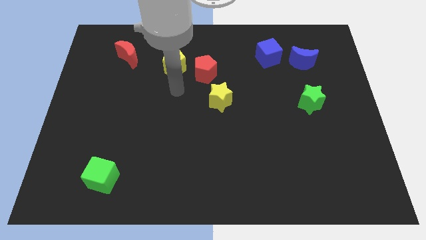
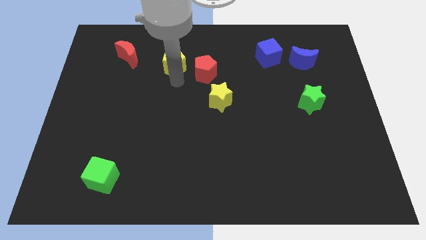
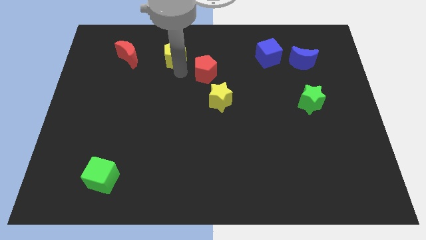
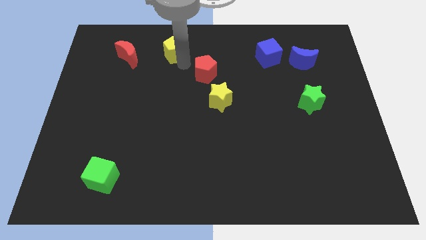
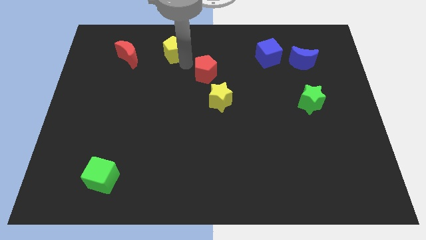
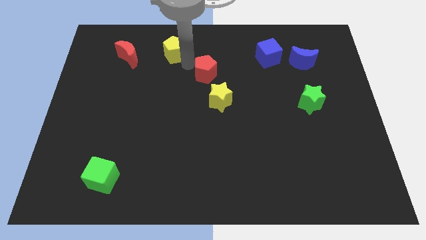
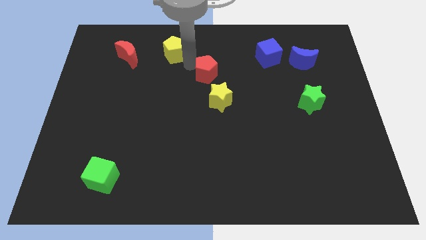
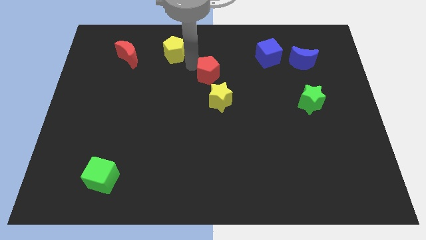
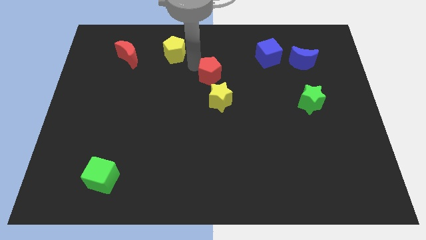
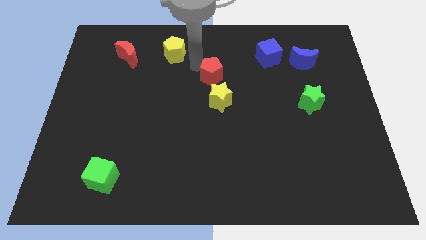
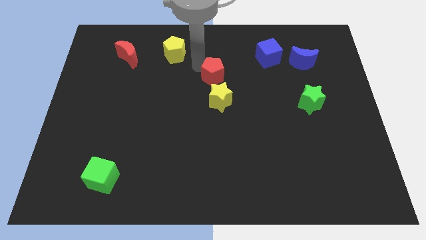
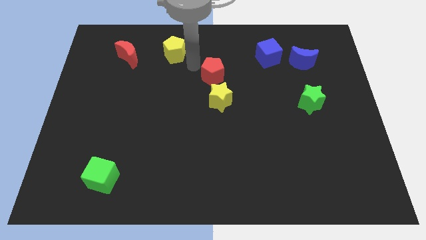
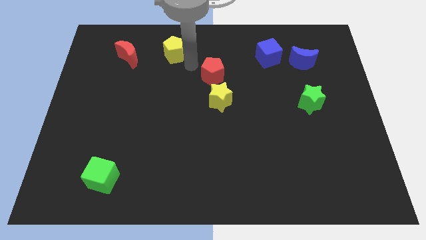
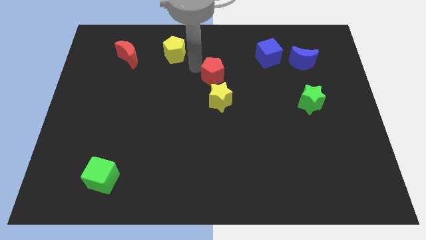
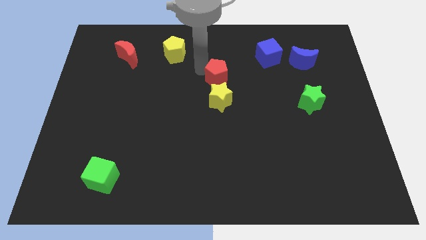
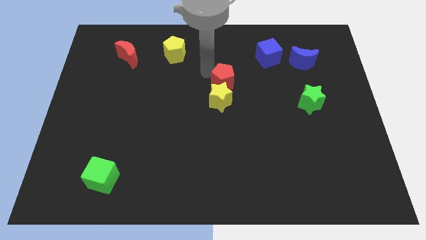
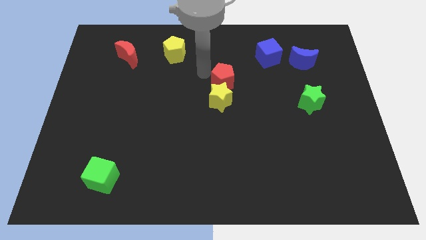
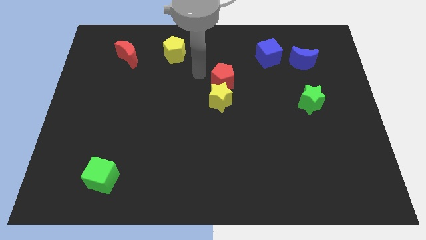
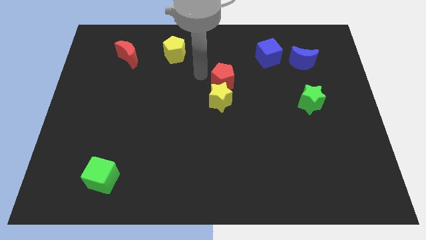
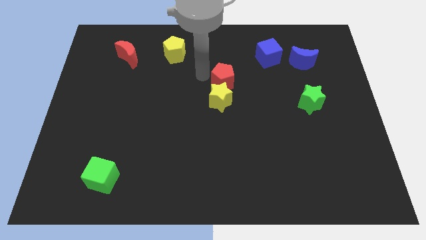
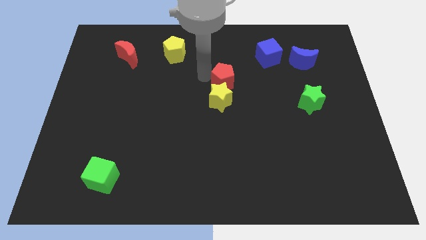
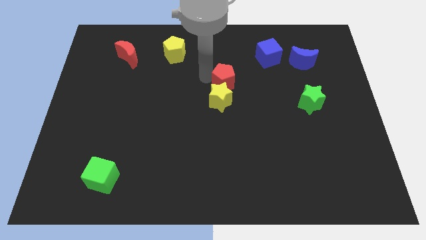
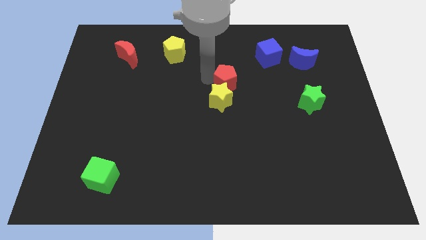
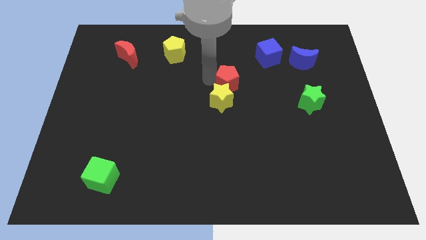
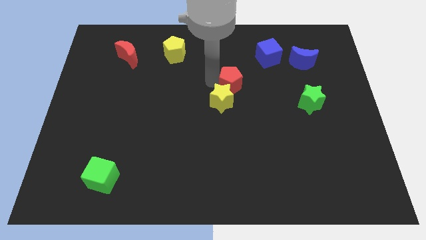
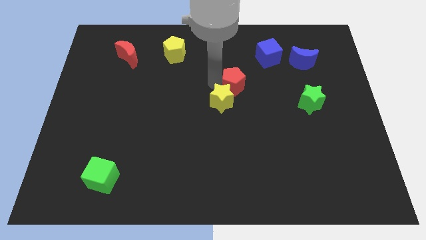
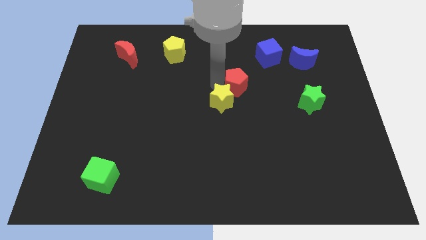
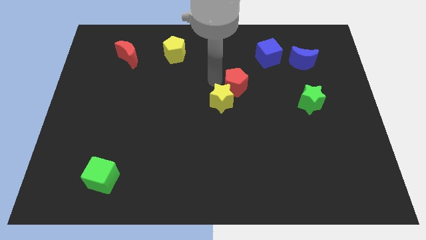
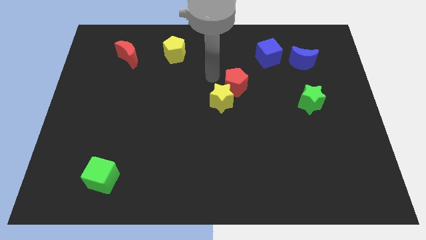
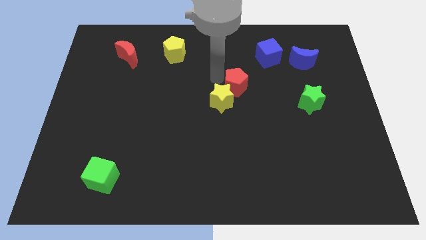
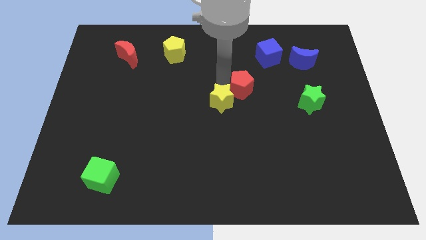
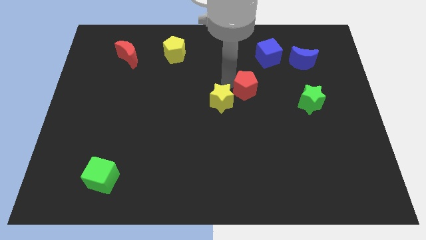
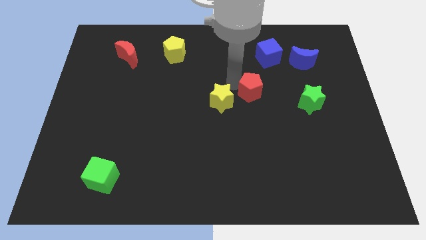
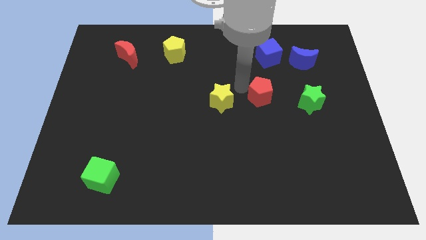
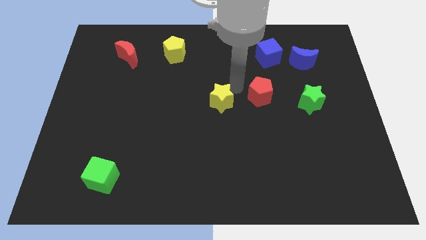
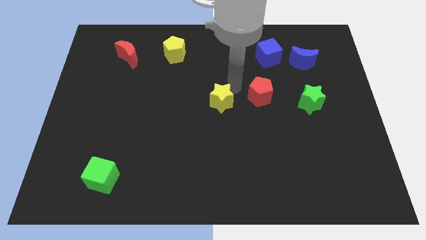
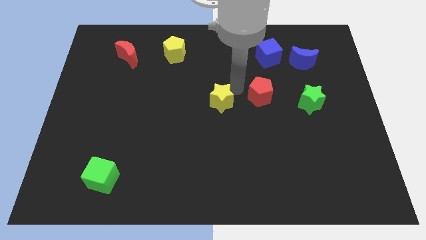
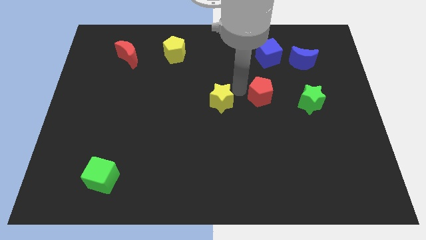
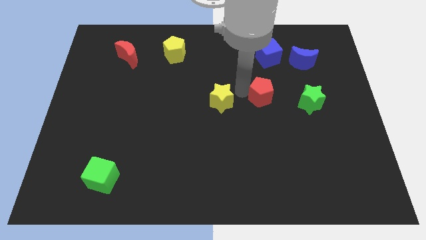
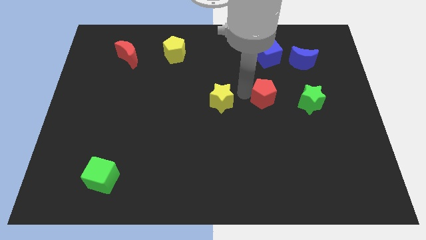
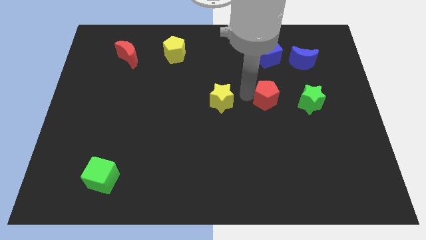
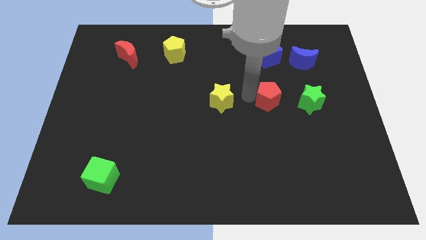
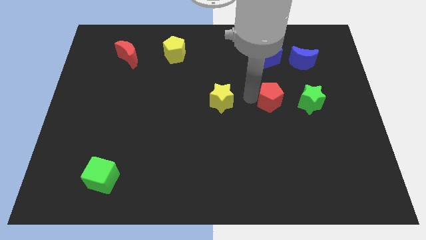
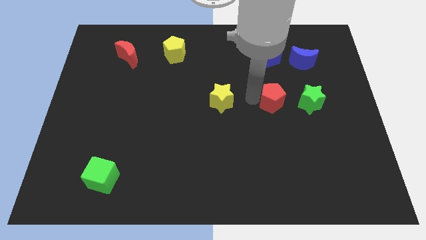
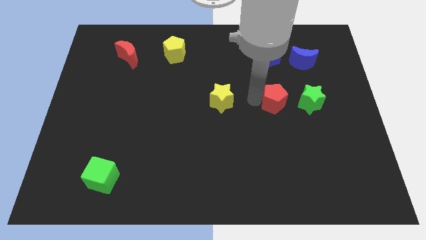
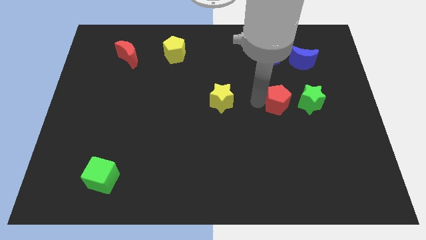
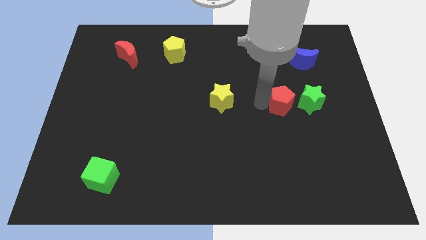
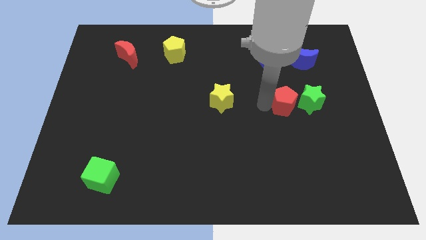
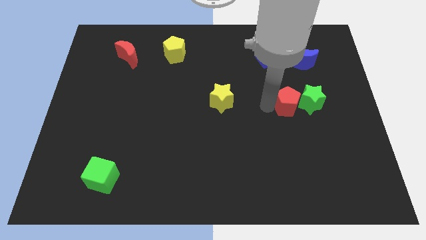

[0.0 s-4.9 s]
push the red pentagon close to the green star

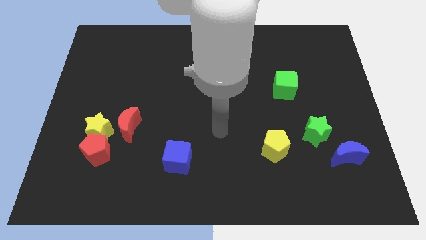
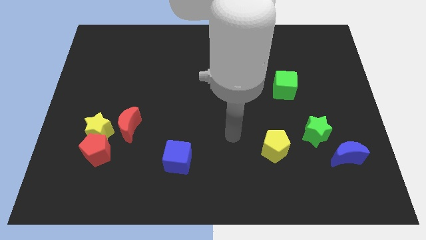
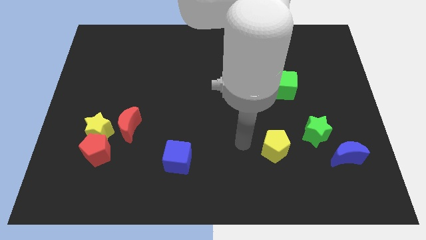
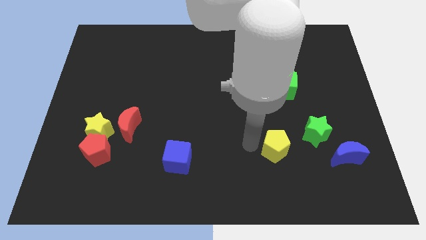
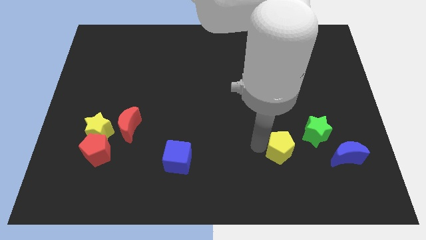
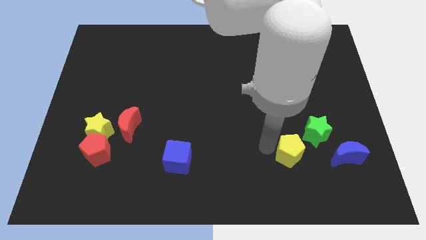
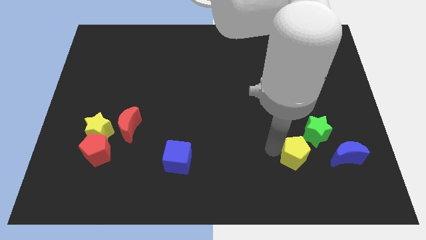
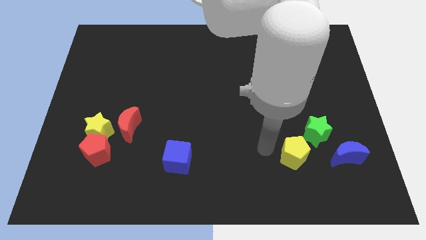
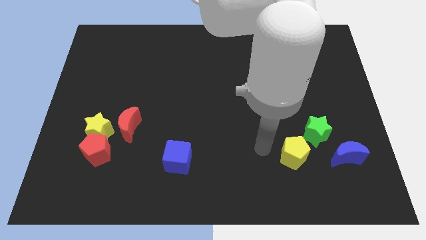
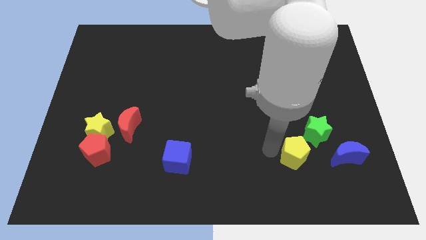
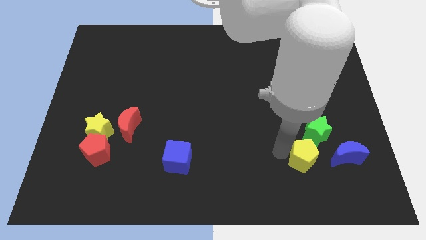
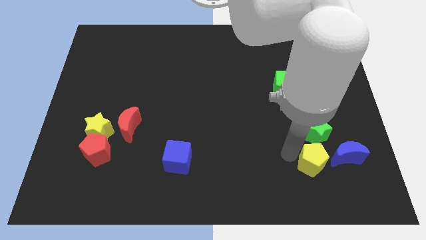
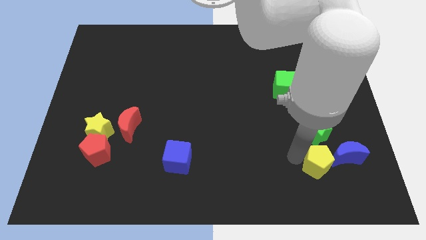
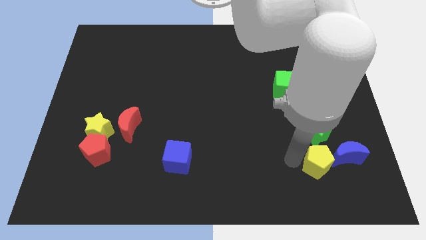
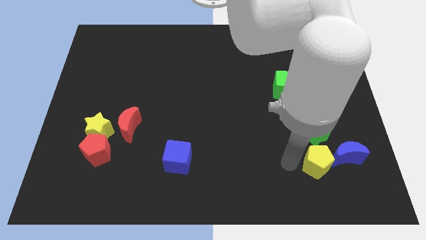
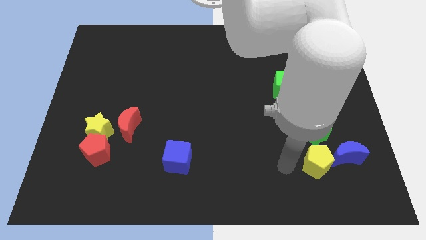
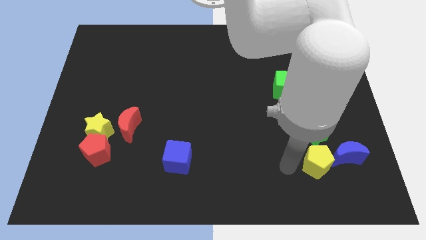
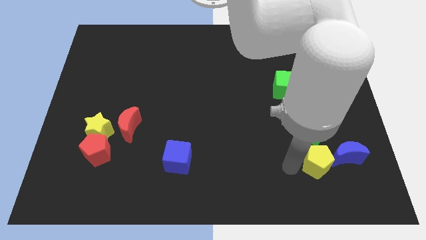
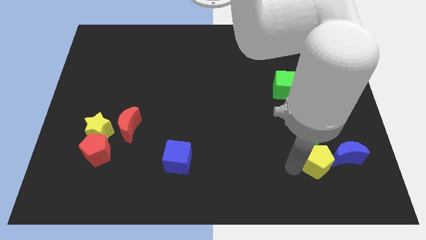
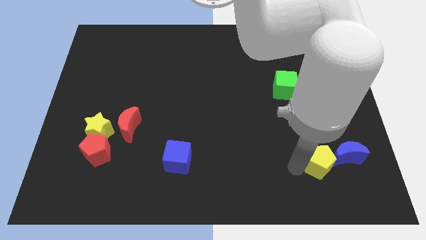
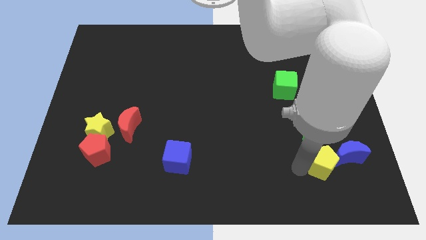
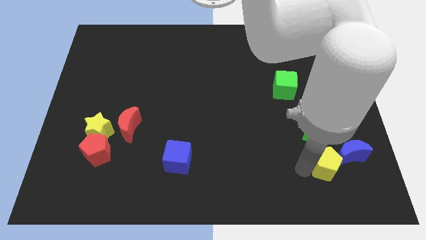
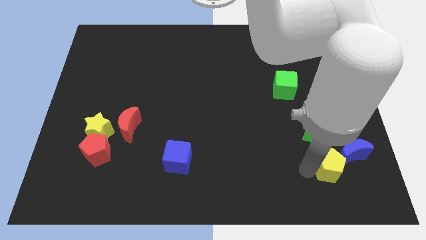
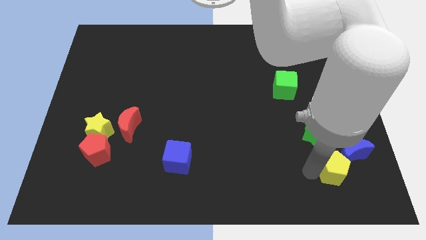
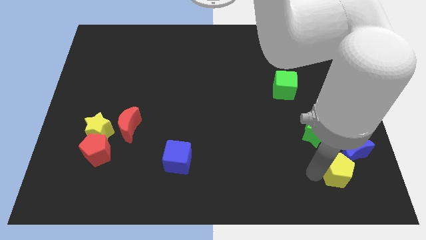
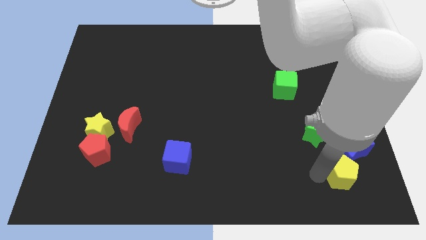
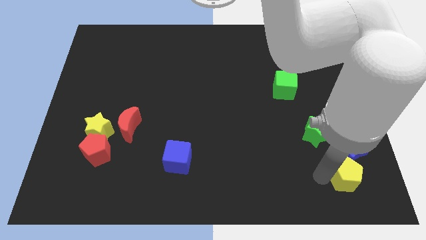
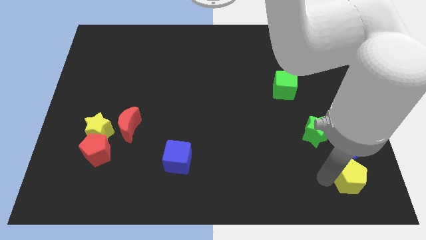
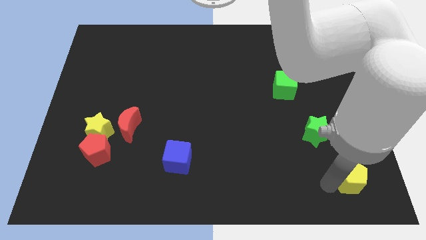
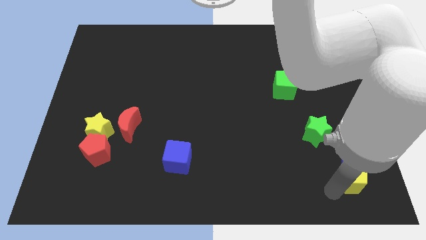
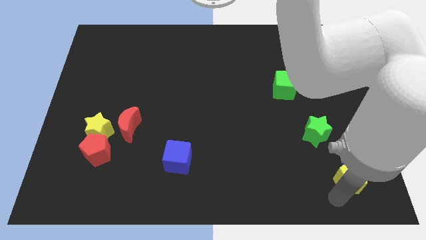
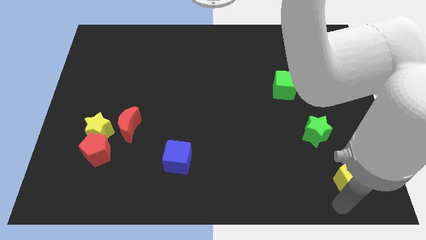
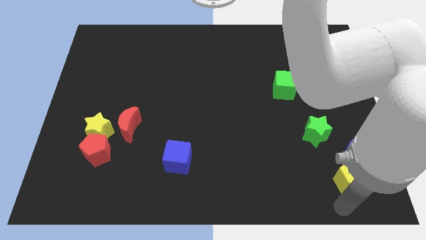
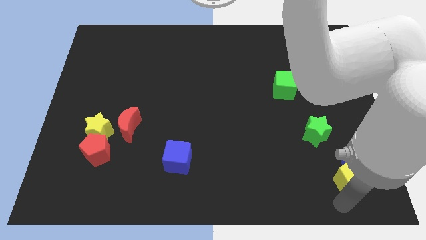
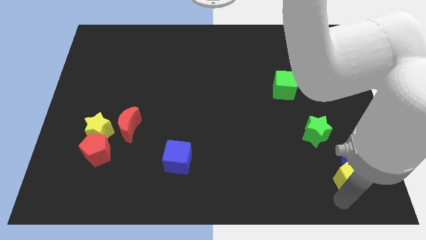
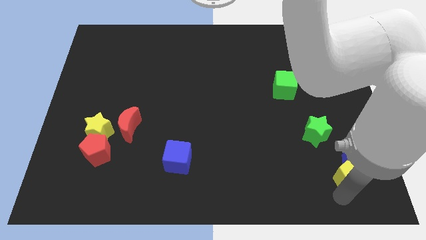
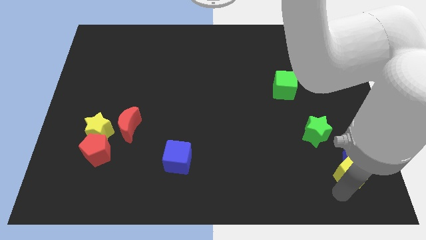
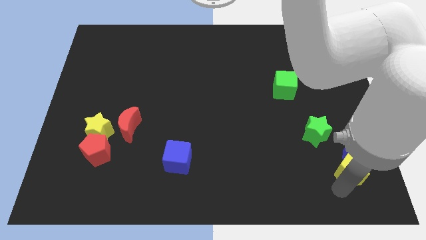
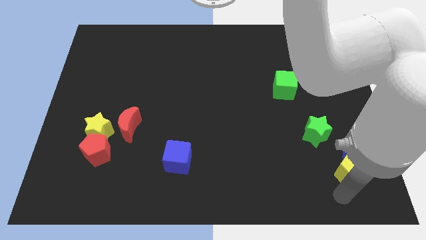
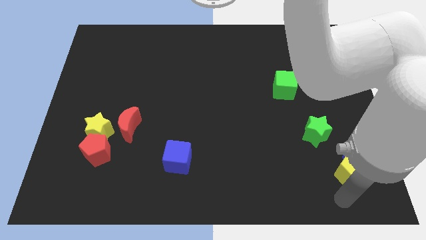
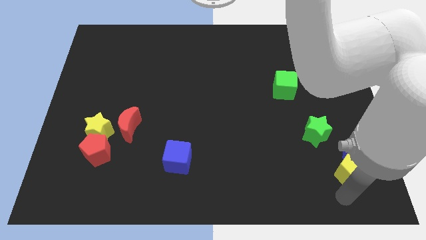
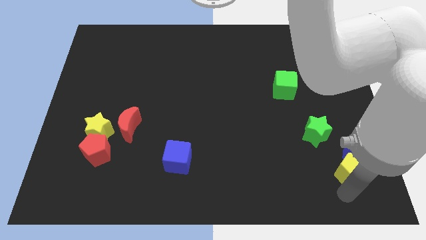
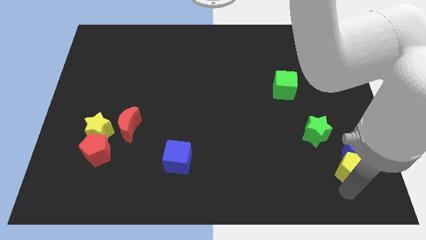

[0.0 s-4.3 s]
slide the yellow pentagon to the blue moon
